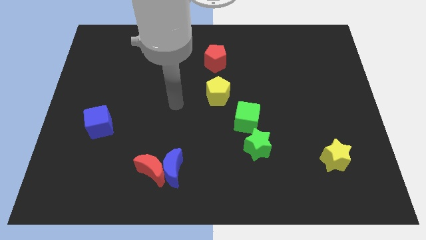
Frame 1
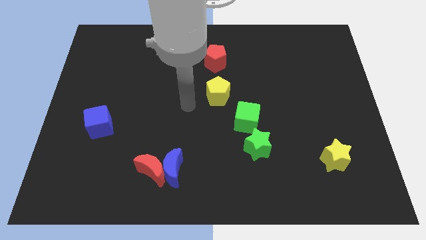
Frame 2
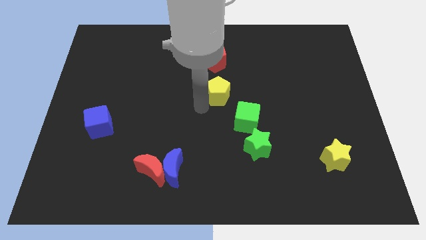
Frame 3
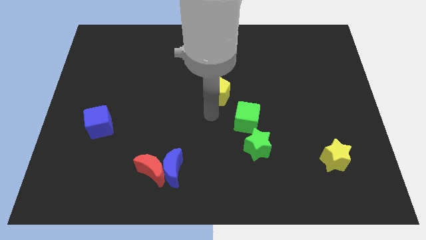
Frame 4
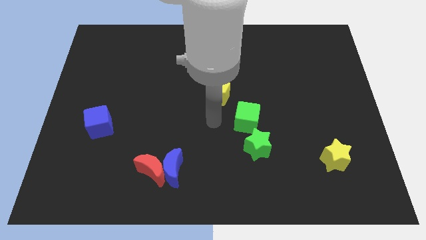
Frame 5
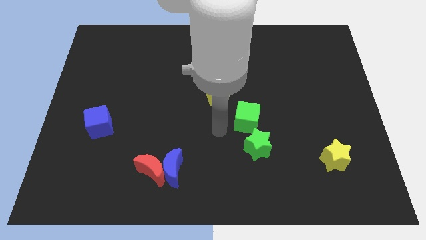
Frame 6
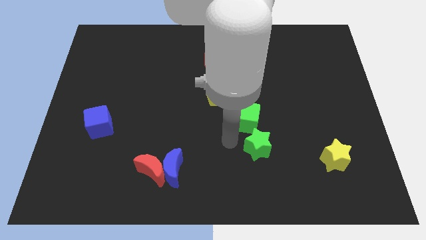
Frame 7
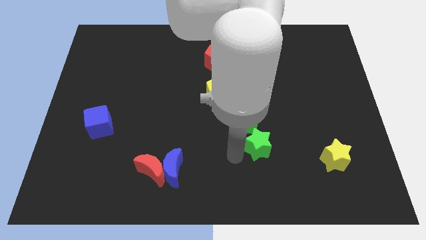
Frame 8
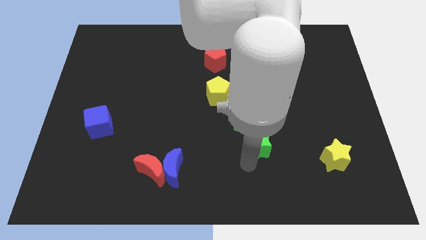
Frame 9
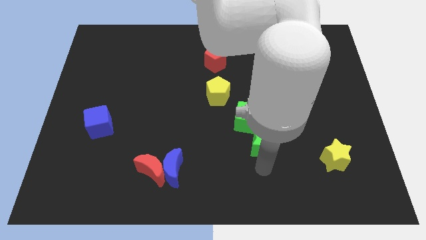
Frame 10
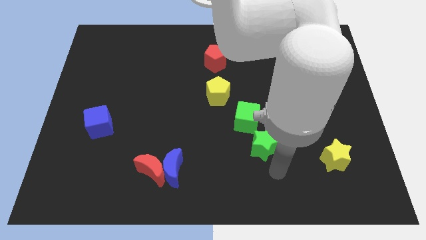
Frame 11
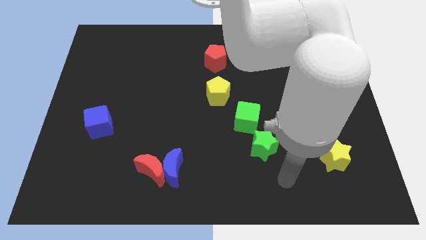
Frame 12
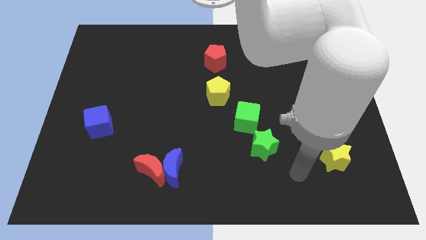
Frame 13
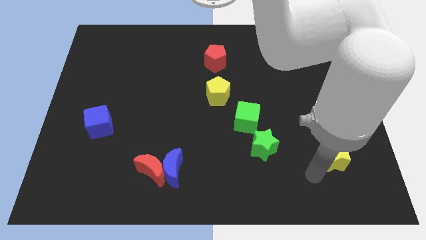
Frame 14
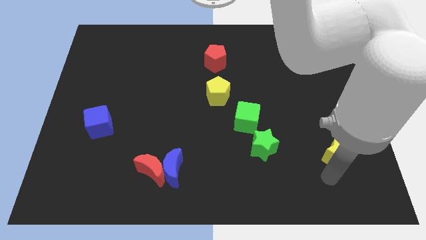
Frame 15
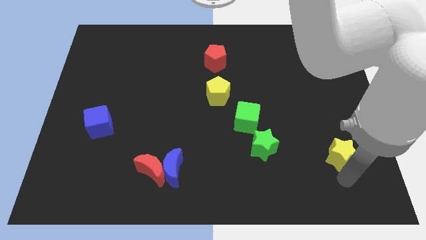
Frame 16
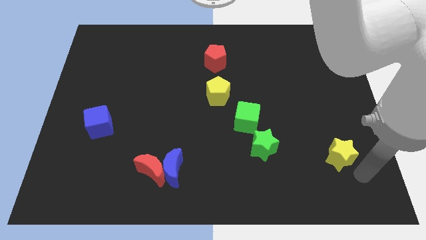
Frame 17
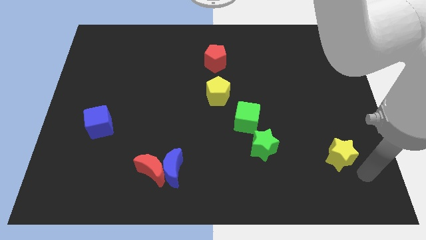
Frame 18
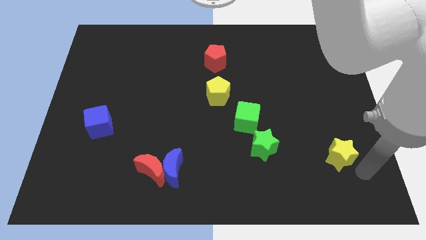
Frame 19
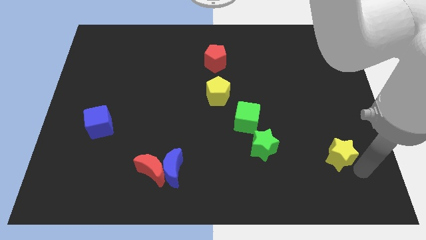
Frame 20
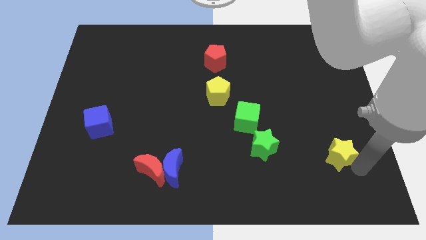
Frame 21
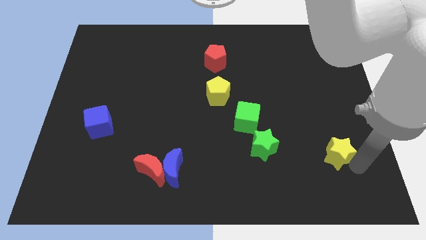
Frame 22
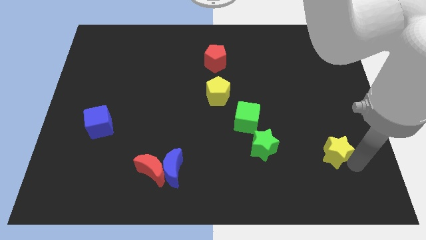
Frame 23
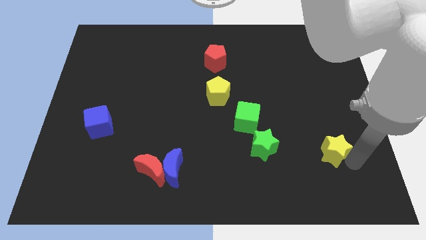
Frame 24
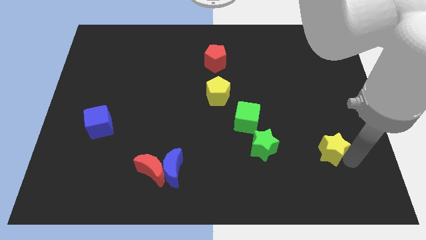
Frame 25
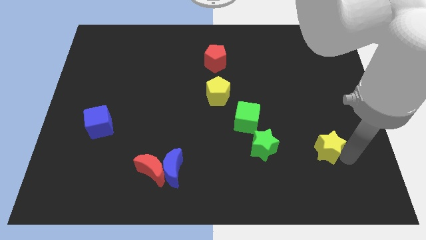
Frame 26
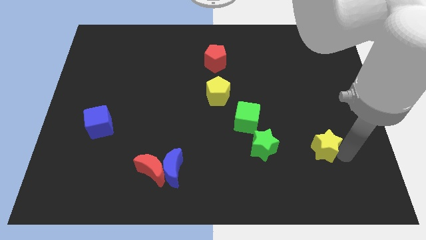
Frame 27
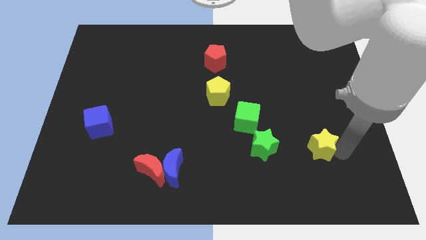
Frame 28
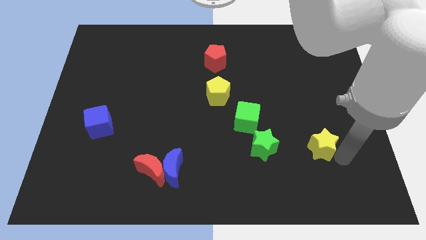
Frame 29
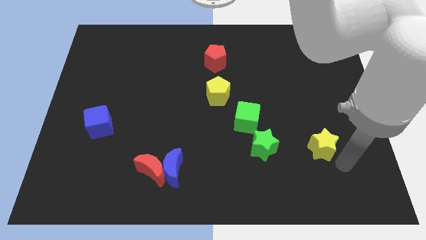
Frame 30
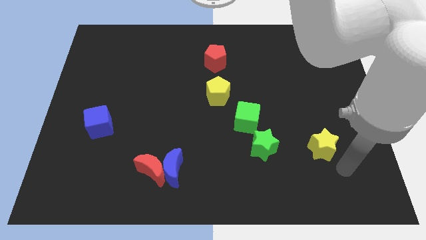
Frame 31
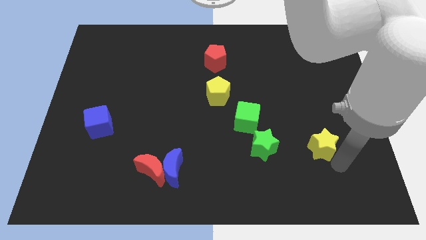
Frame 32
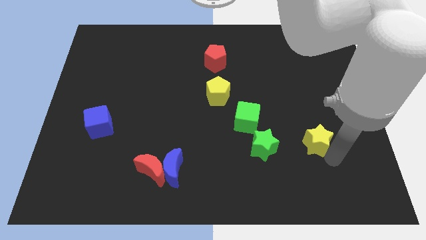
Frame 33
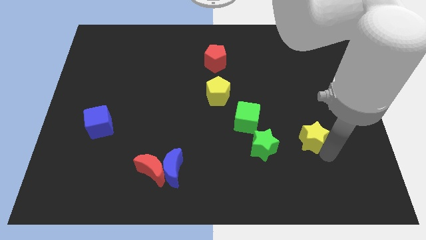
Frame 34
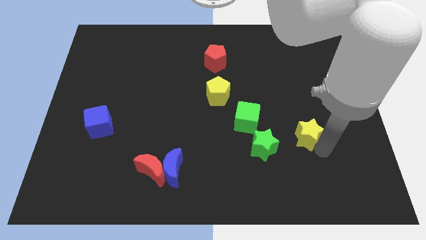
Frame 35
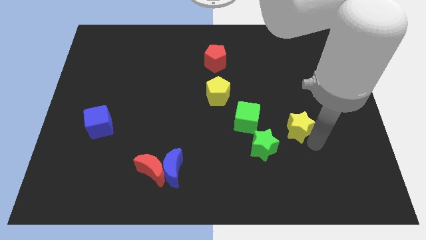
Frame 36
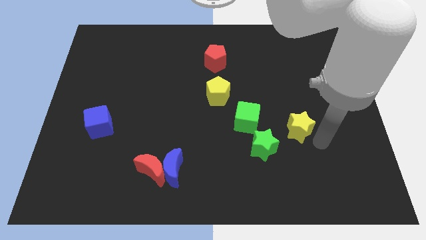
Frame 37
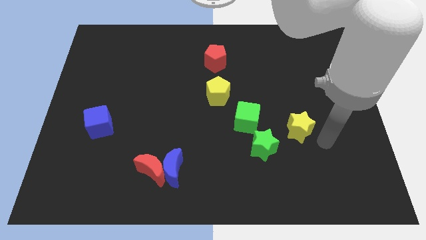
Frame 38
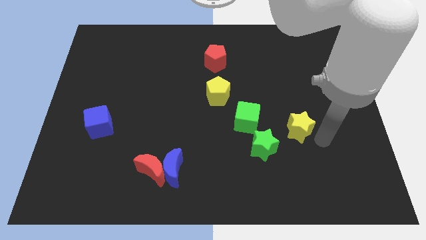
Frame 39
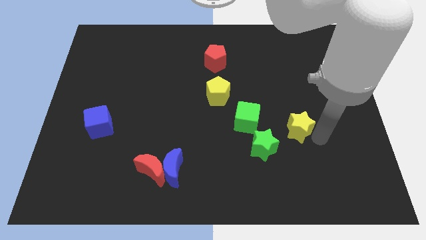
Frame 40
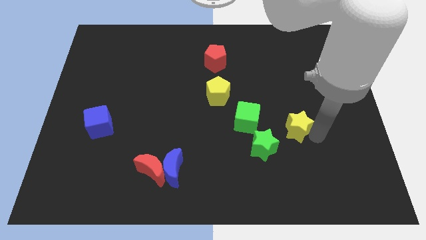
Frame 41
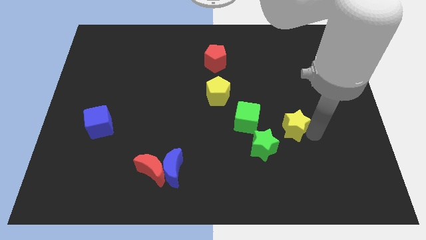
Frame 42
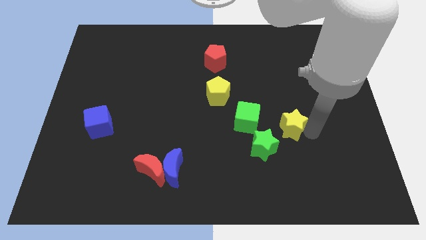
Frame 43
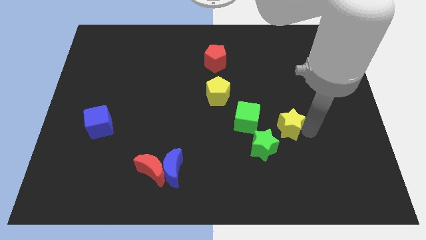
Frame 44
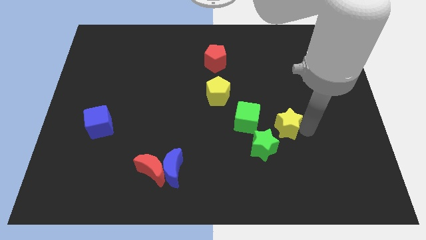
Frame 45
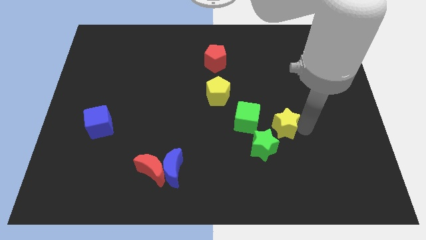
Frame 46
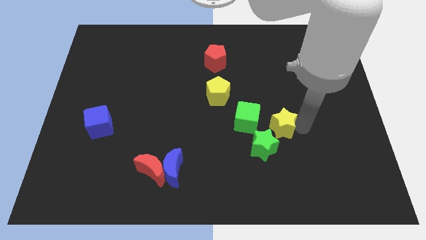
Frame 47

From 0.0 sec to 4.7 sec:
move the yellow star to the top of the green star

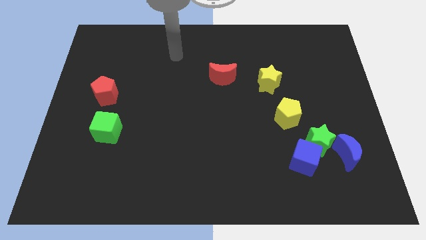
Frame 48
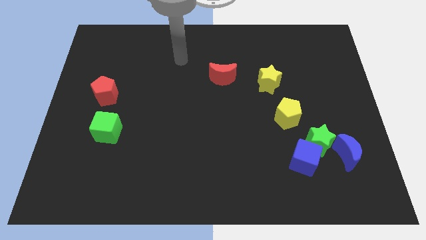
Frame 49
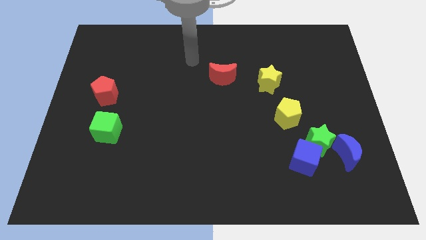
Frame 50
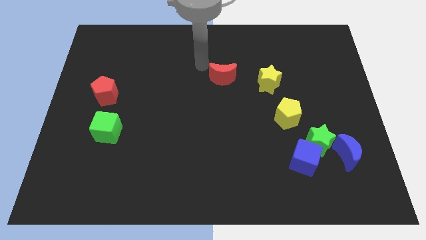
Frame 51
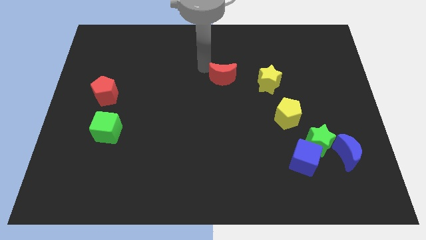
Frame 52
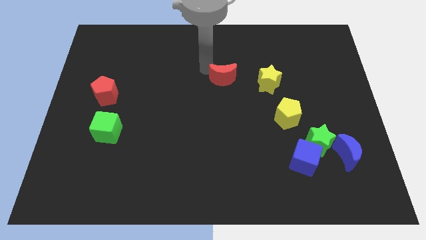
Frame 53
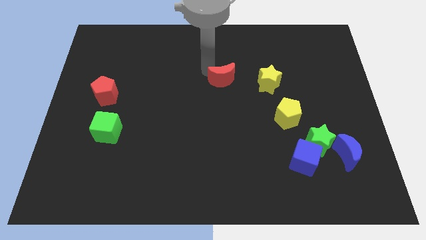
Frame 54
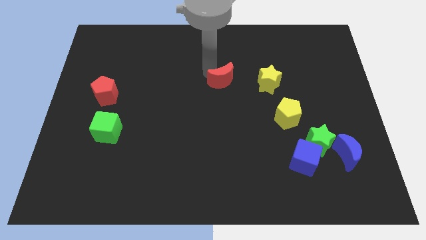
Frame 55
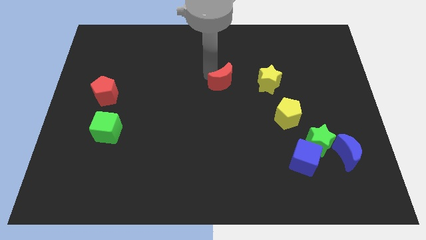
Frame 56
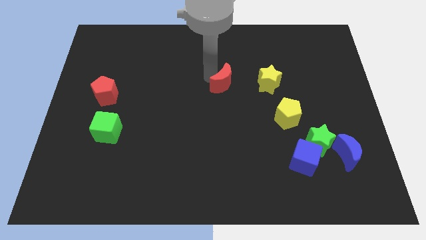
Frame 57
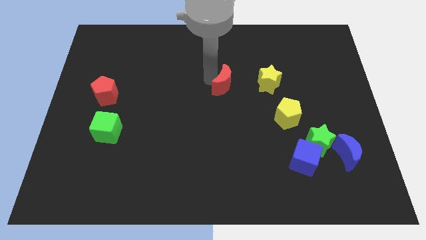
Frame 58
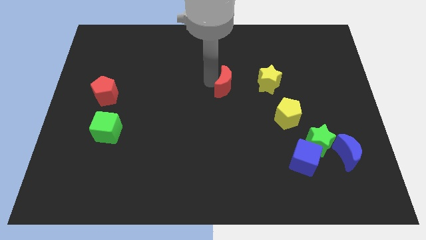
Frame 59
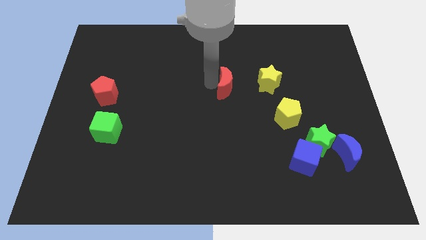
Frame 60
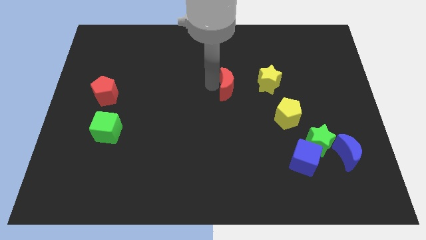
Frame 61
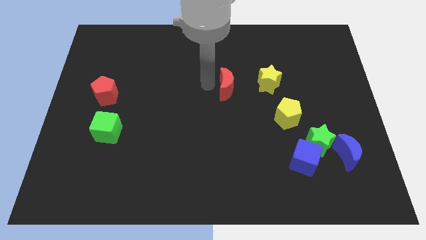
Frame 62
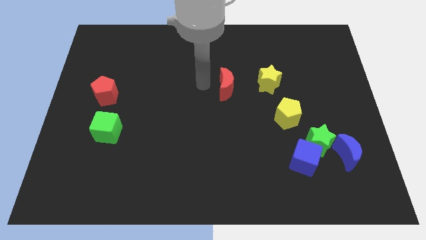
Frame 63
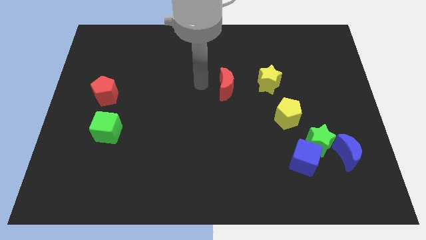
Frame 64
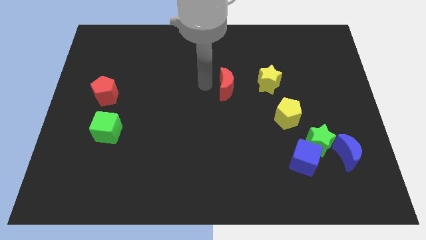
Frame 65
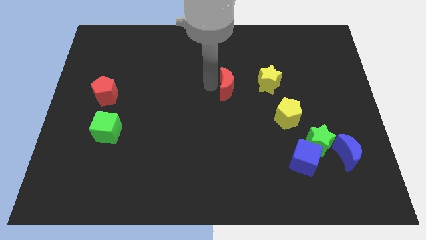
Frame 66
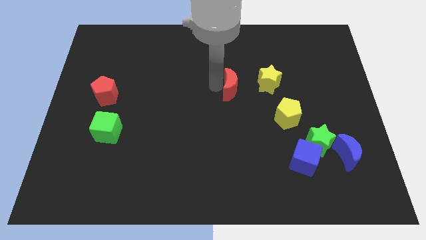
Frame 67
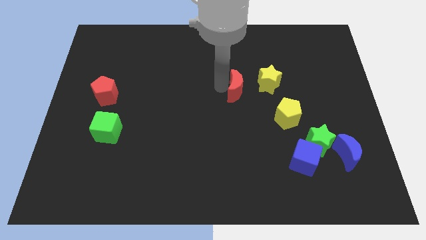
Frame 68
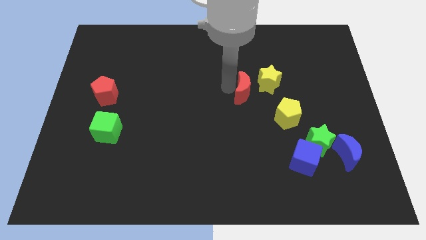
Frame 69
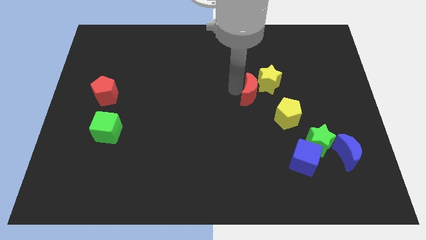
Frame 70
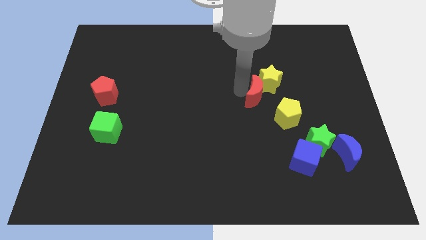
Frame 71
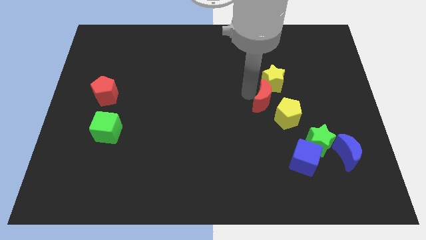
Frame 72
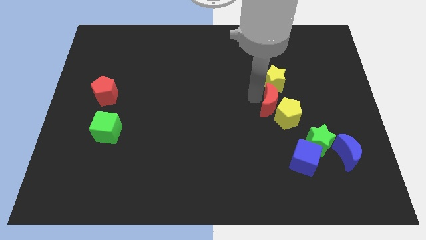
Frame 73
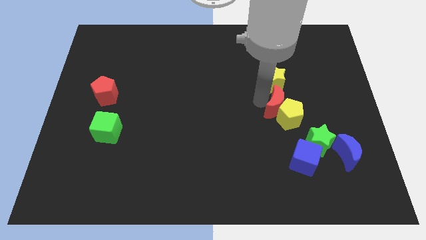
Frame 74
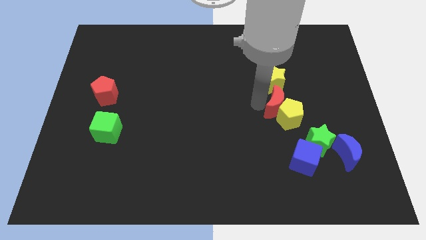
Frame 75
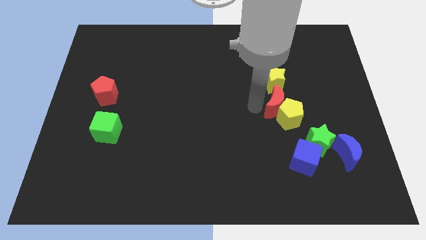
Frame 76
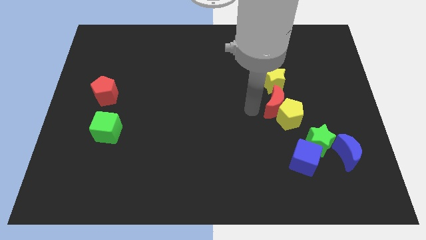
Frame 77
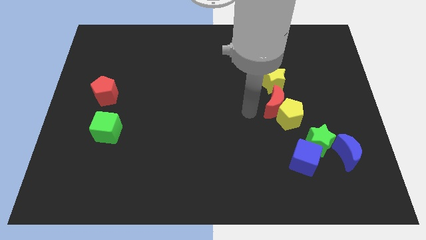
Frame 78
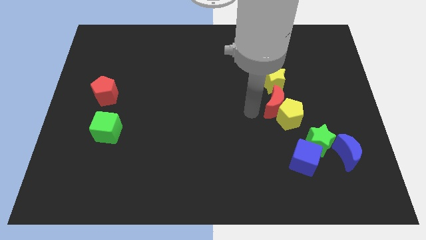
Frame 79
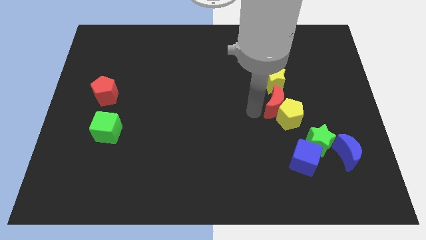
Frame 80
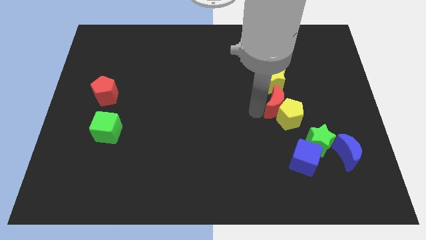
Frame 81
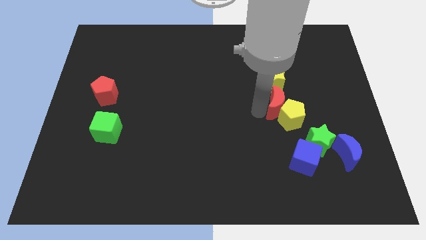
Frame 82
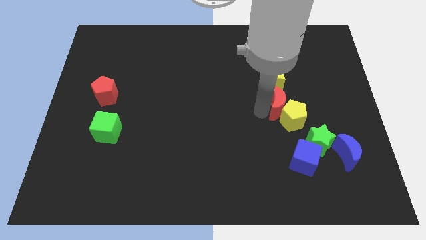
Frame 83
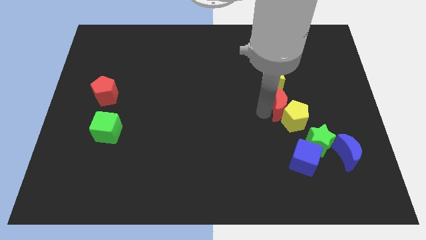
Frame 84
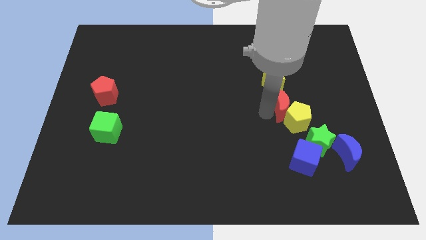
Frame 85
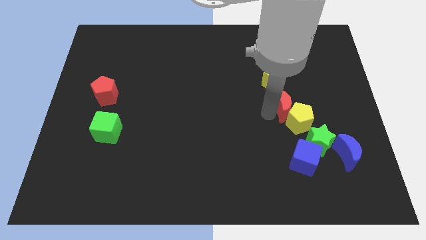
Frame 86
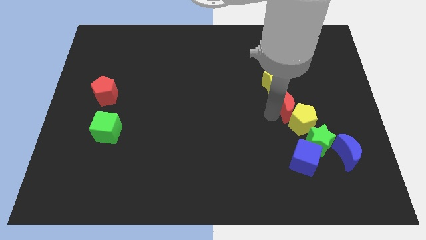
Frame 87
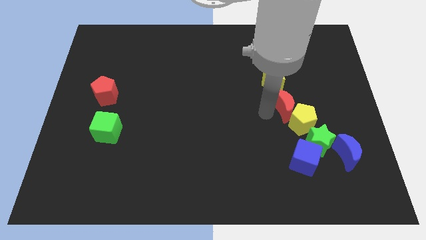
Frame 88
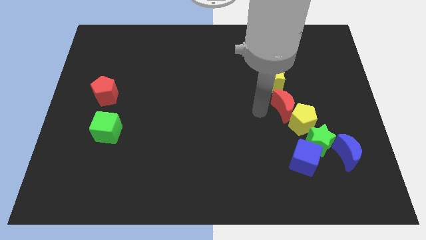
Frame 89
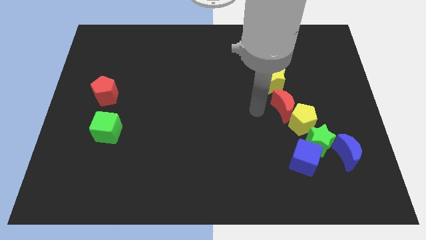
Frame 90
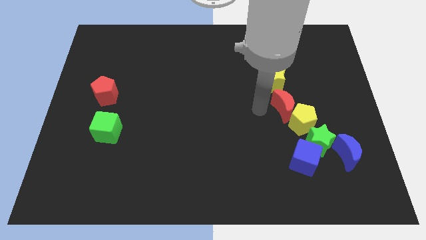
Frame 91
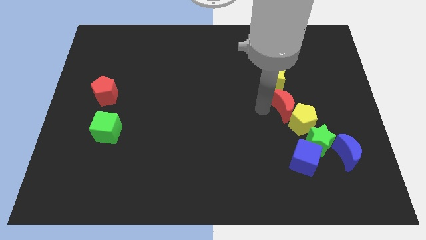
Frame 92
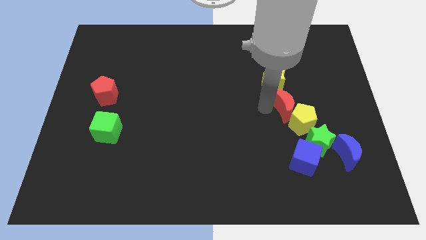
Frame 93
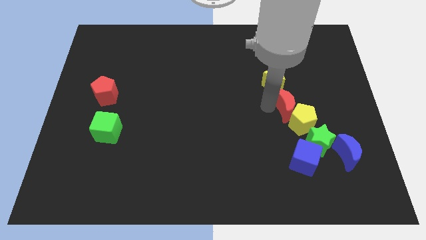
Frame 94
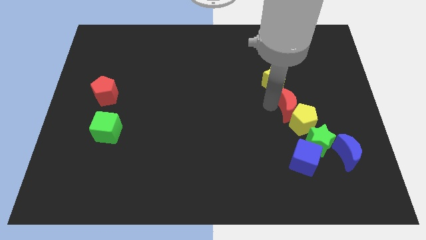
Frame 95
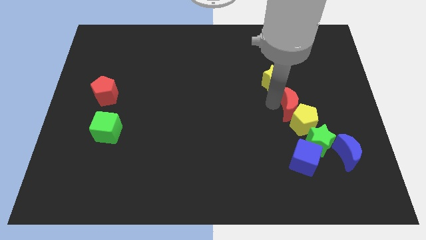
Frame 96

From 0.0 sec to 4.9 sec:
move the red moon to the top side of the green star
